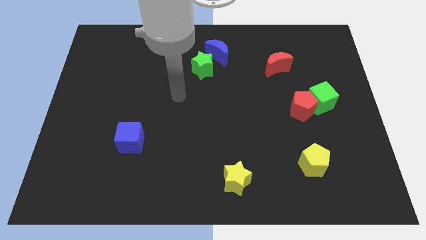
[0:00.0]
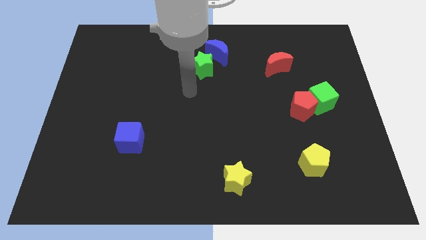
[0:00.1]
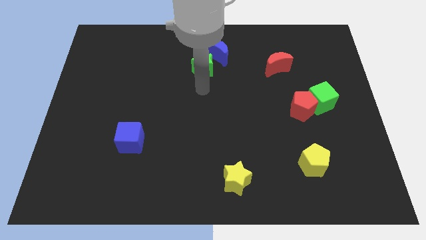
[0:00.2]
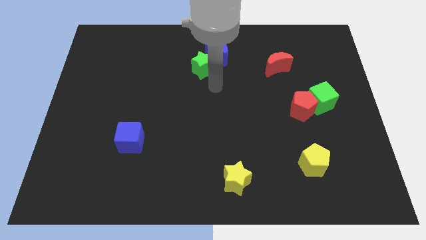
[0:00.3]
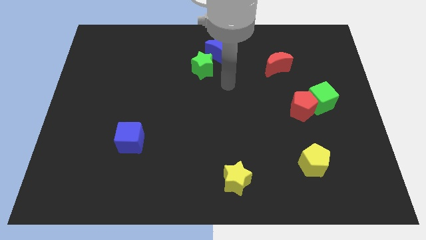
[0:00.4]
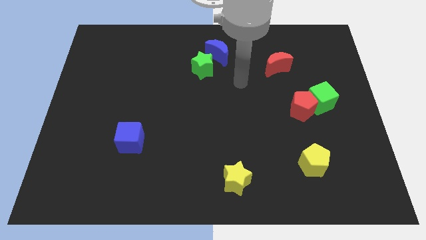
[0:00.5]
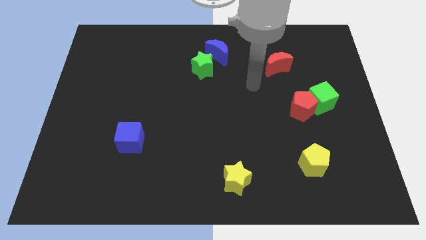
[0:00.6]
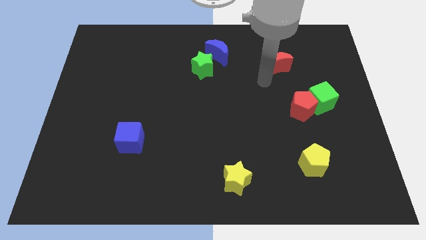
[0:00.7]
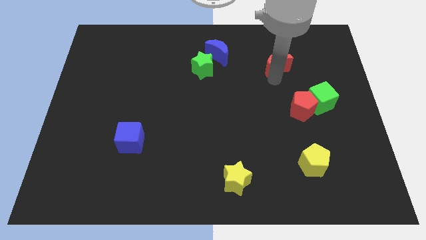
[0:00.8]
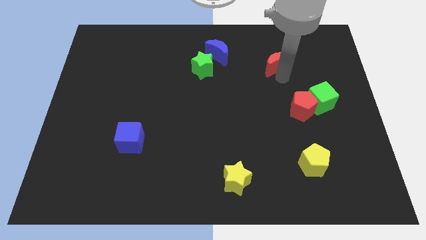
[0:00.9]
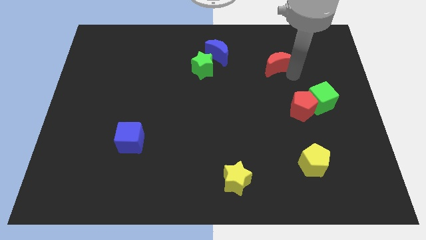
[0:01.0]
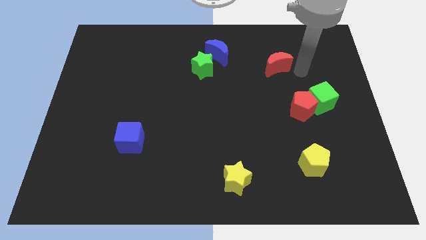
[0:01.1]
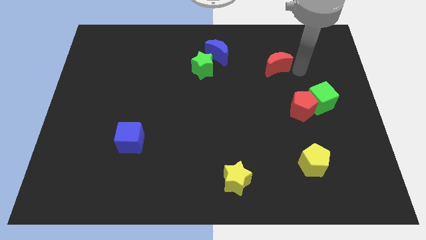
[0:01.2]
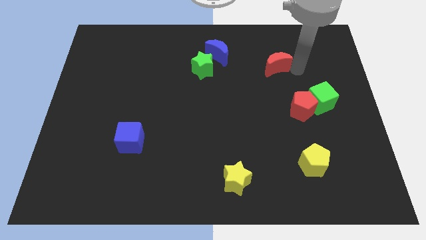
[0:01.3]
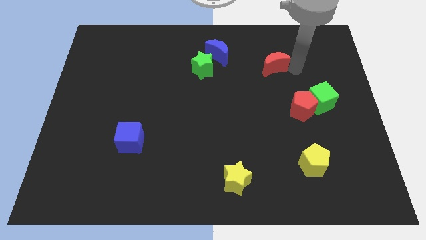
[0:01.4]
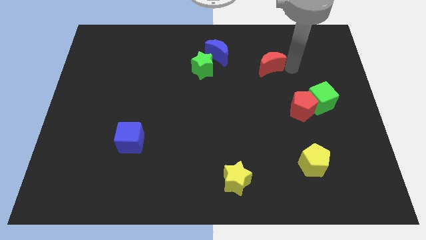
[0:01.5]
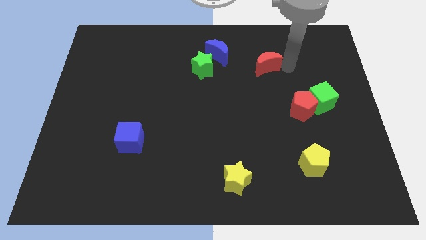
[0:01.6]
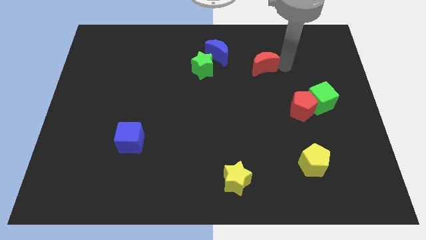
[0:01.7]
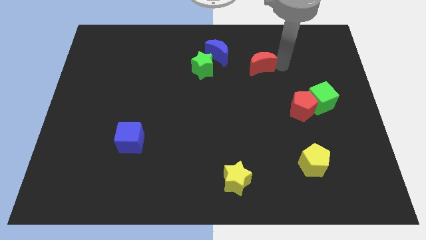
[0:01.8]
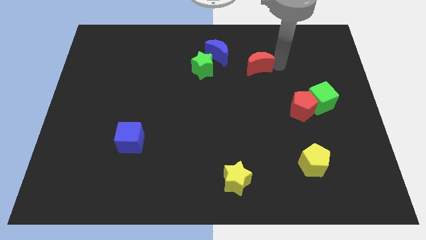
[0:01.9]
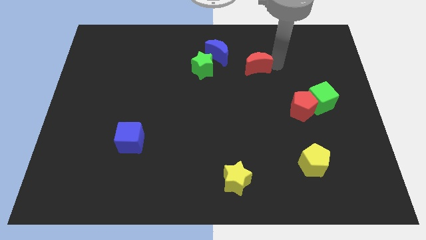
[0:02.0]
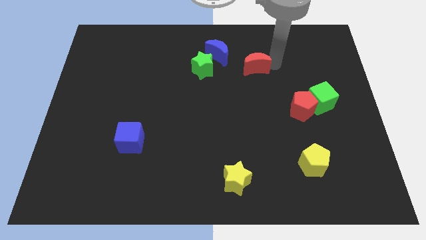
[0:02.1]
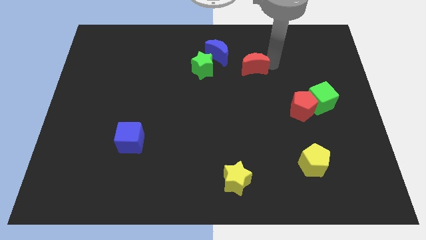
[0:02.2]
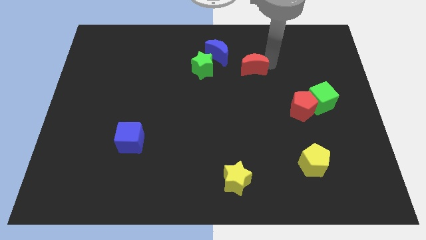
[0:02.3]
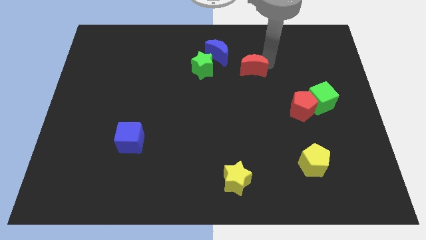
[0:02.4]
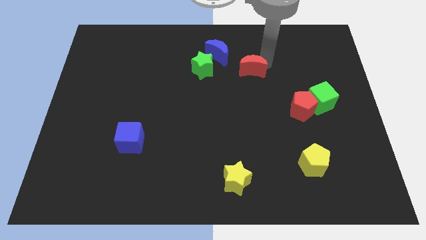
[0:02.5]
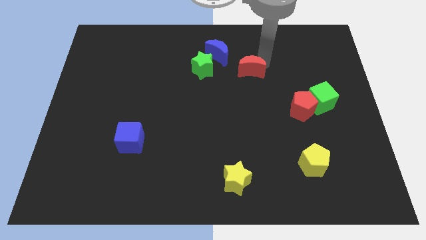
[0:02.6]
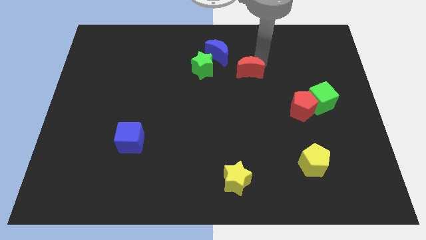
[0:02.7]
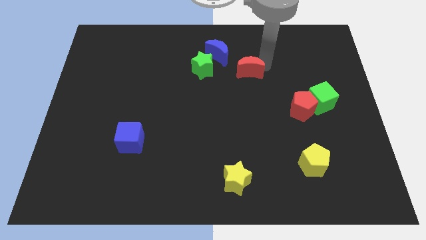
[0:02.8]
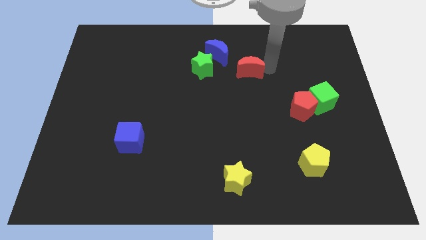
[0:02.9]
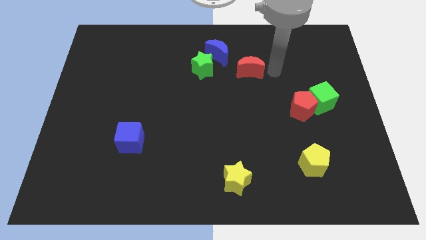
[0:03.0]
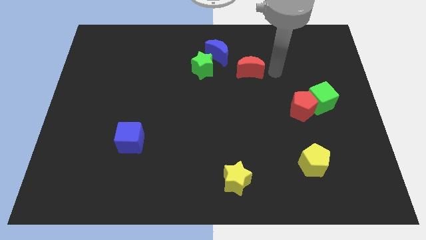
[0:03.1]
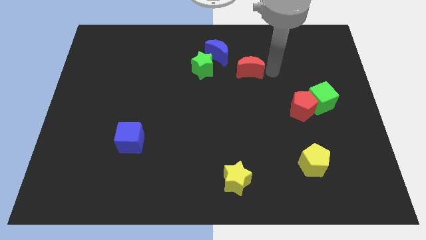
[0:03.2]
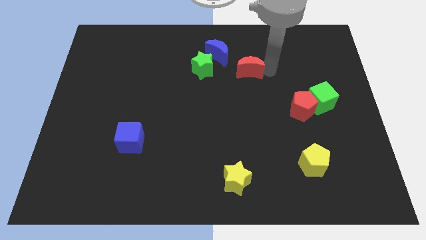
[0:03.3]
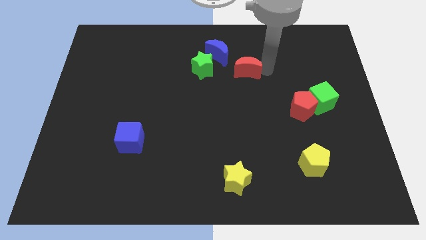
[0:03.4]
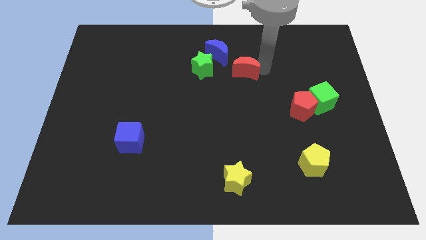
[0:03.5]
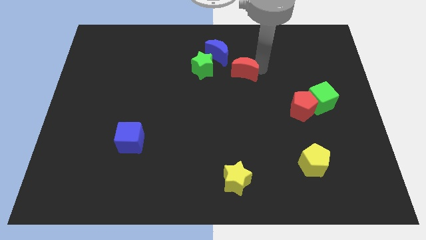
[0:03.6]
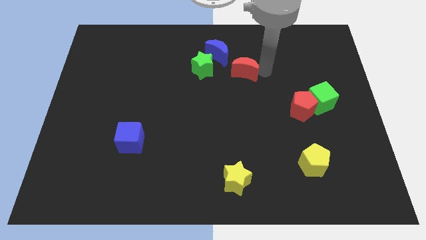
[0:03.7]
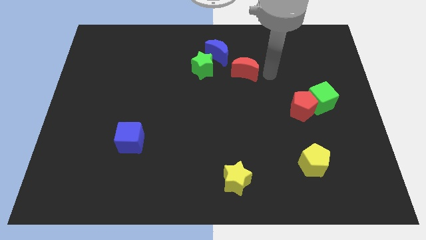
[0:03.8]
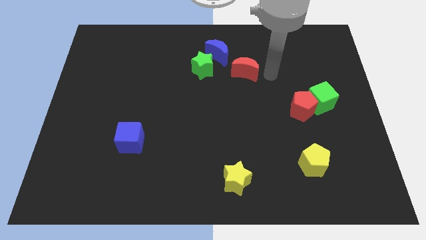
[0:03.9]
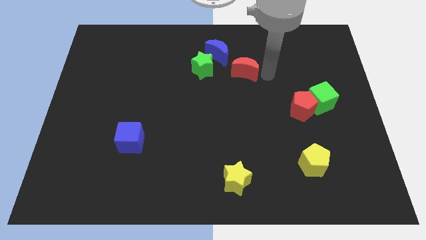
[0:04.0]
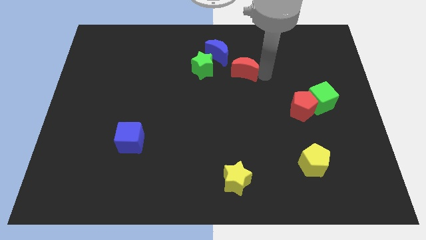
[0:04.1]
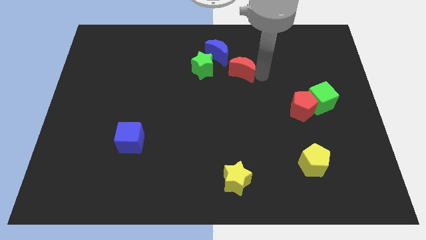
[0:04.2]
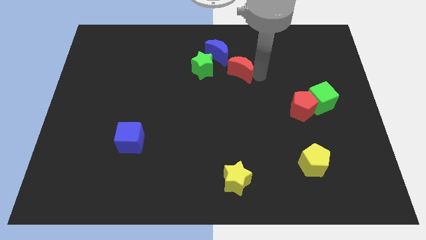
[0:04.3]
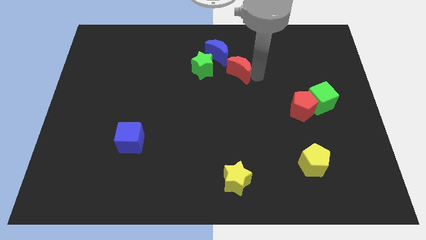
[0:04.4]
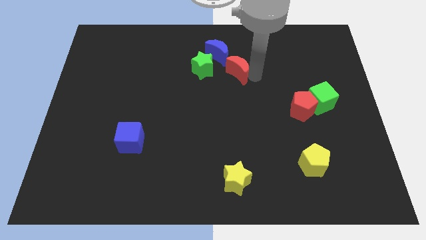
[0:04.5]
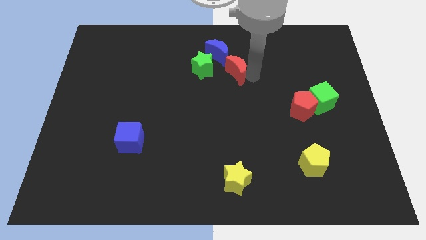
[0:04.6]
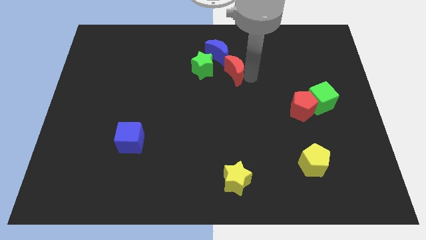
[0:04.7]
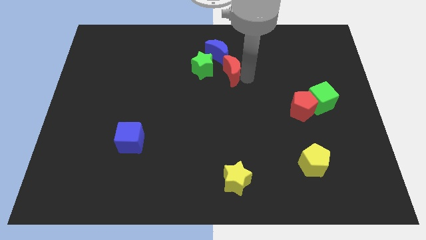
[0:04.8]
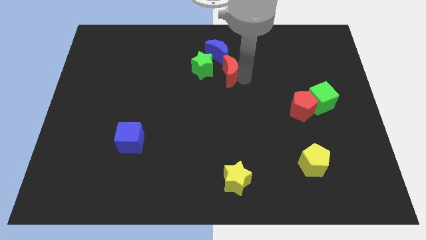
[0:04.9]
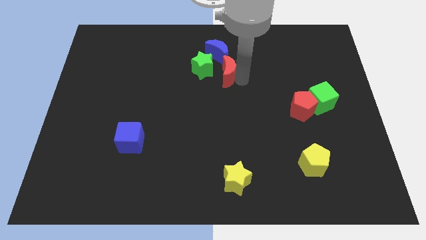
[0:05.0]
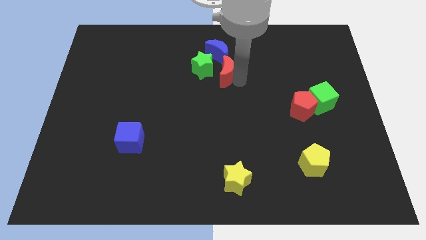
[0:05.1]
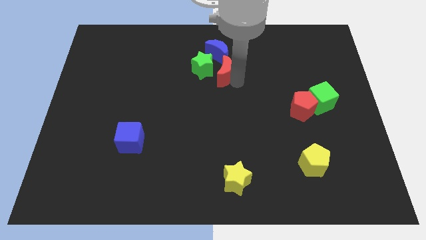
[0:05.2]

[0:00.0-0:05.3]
slide the red moon to the green star

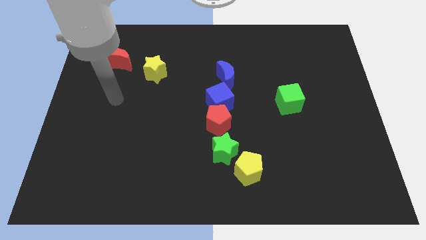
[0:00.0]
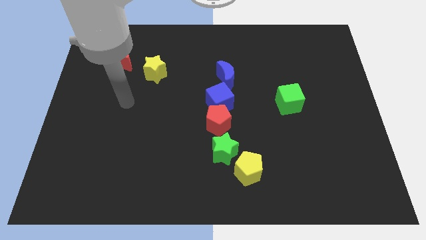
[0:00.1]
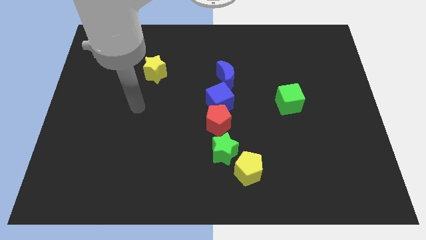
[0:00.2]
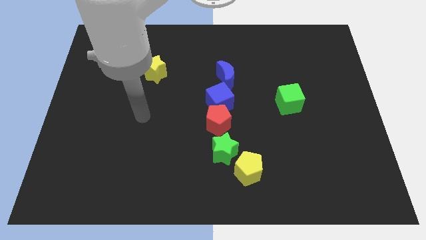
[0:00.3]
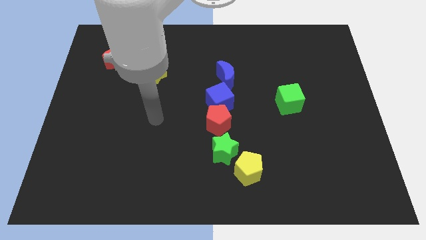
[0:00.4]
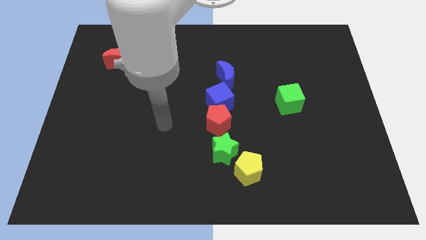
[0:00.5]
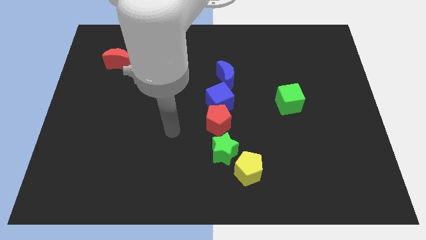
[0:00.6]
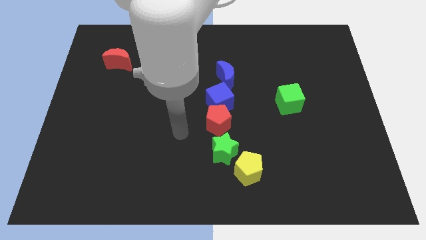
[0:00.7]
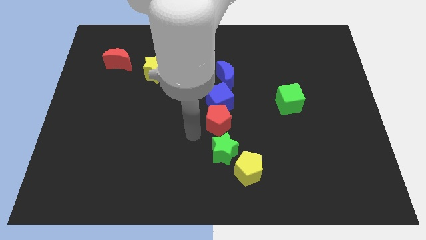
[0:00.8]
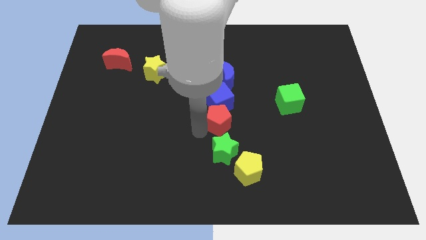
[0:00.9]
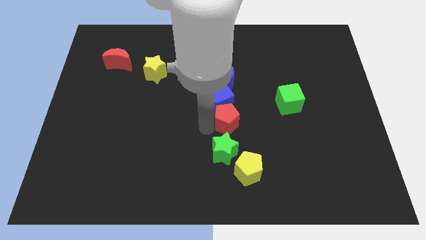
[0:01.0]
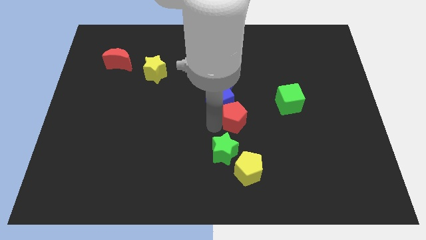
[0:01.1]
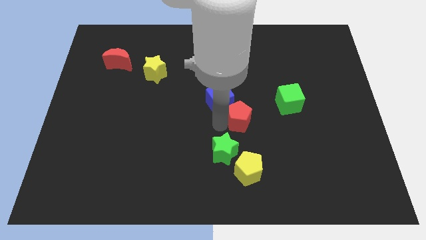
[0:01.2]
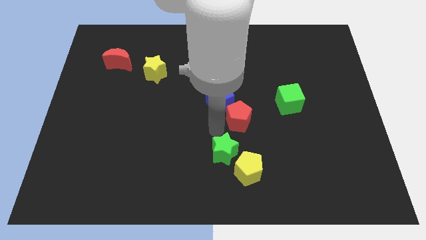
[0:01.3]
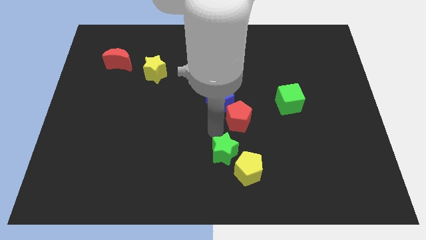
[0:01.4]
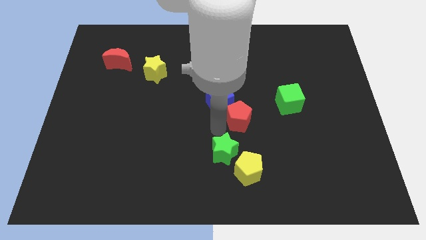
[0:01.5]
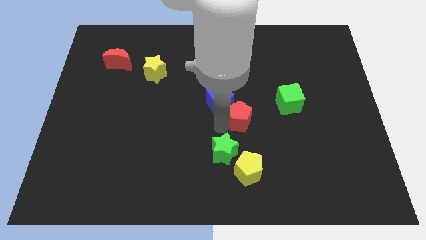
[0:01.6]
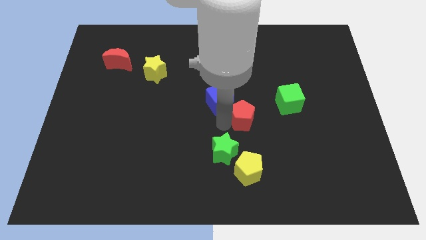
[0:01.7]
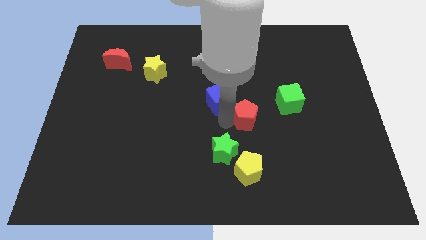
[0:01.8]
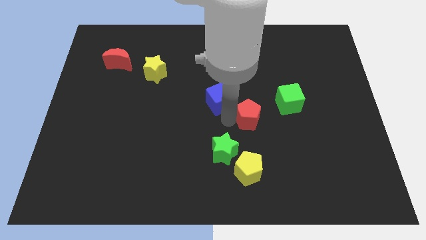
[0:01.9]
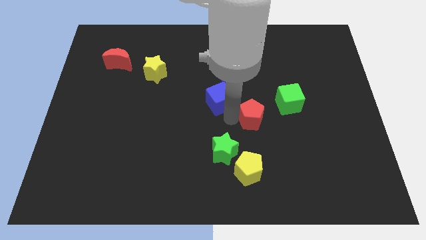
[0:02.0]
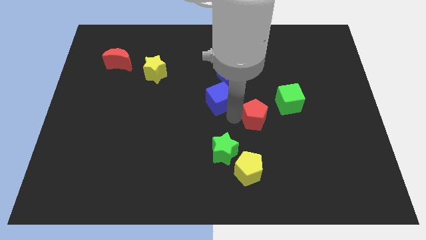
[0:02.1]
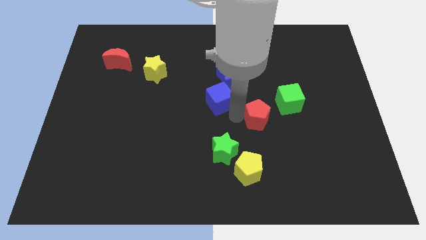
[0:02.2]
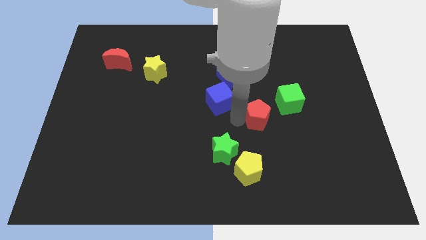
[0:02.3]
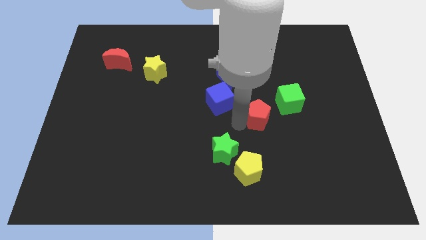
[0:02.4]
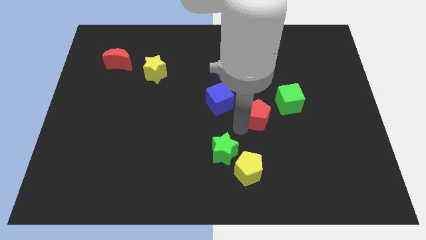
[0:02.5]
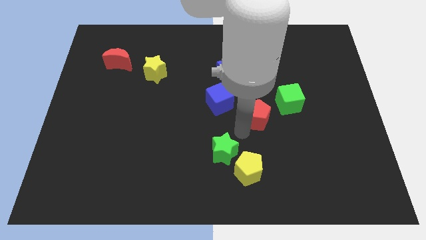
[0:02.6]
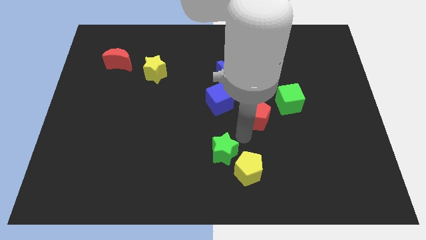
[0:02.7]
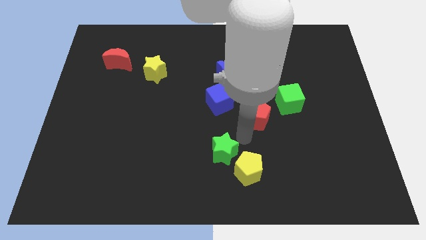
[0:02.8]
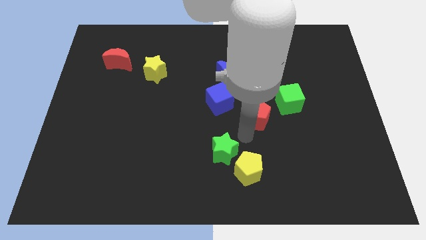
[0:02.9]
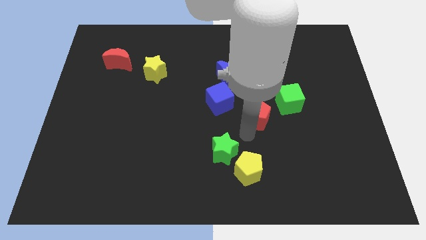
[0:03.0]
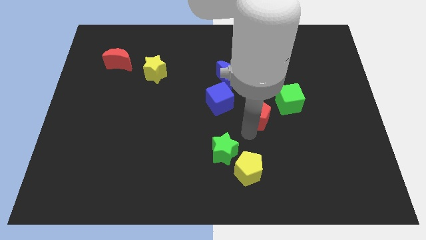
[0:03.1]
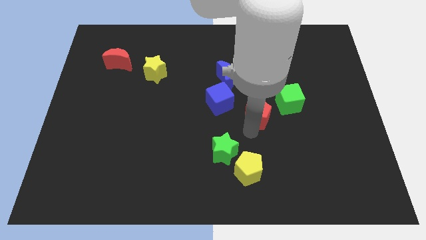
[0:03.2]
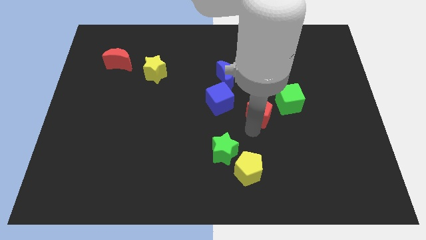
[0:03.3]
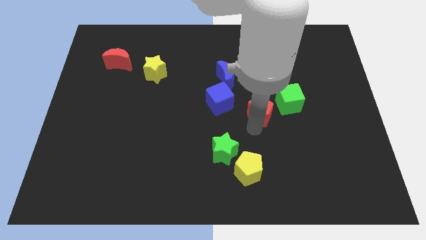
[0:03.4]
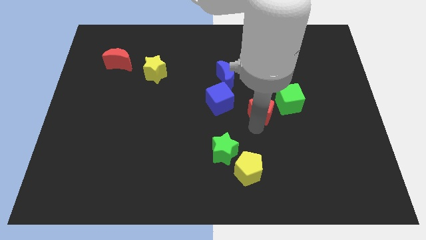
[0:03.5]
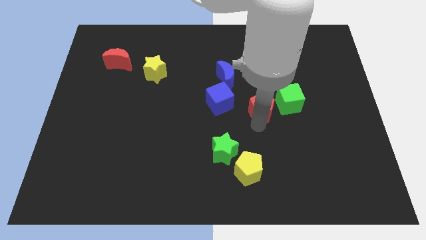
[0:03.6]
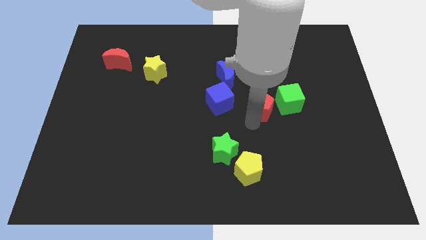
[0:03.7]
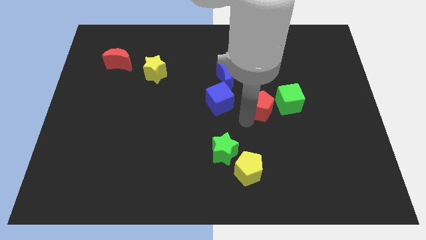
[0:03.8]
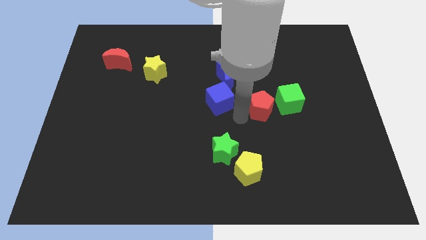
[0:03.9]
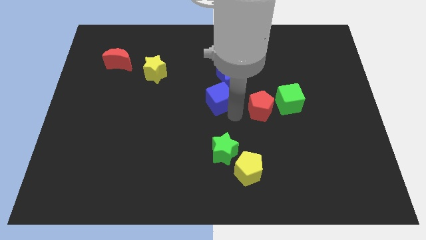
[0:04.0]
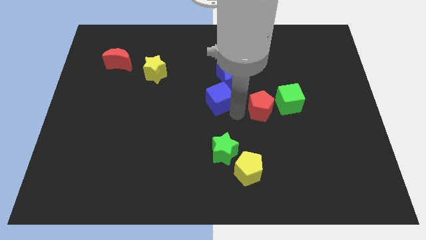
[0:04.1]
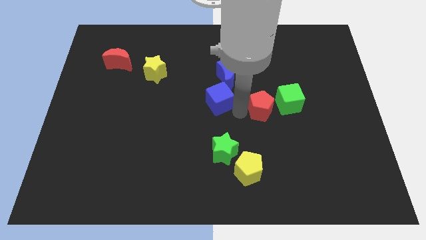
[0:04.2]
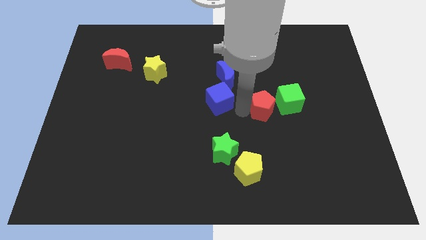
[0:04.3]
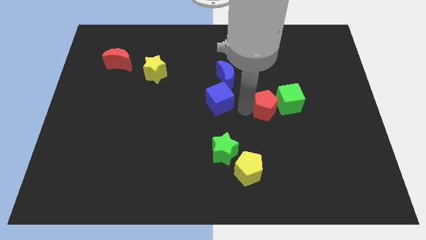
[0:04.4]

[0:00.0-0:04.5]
move the red pentagon close to the green cube
